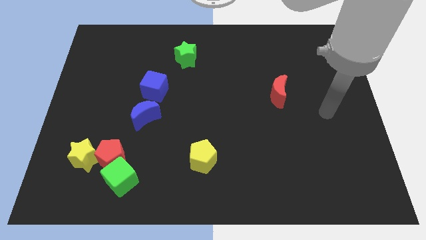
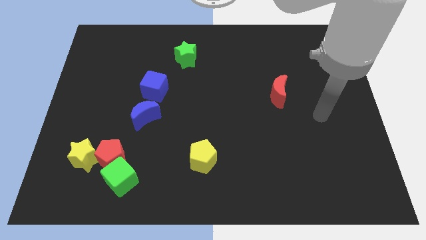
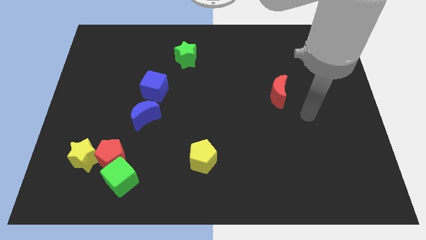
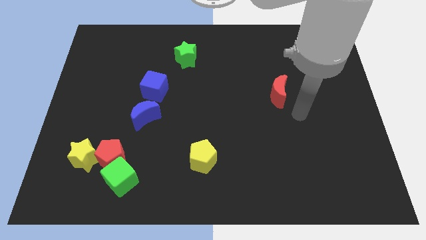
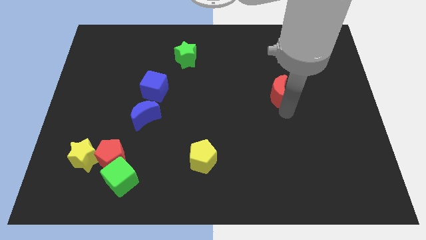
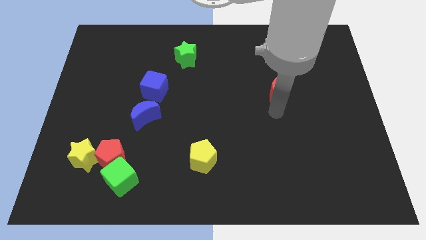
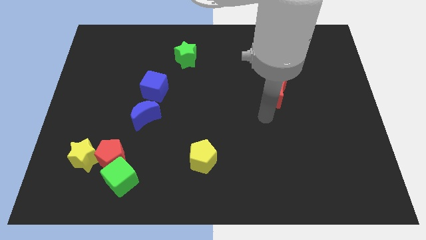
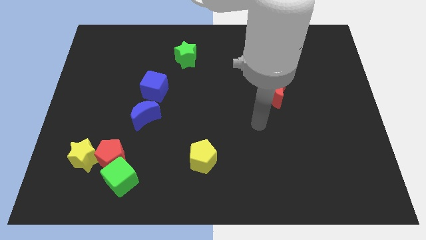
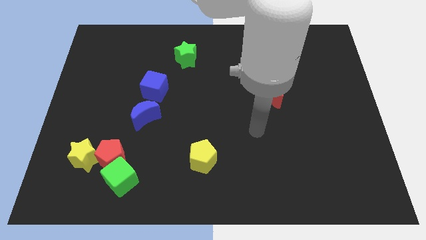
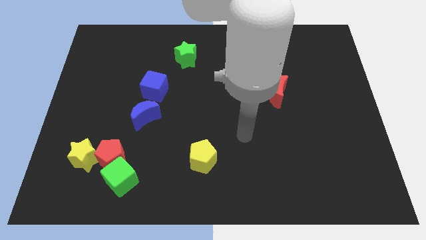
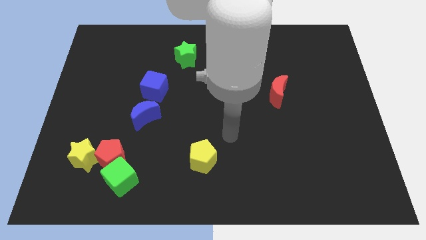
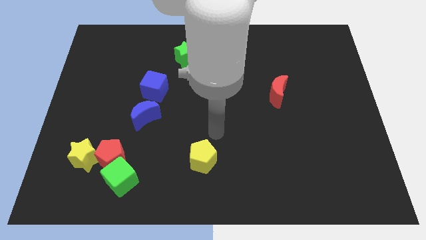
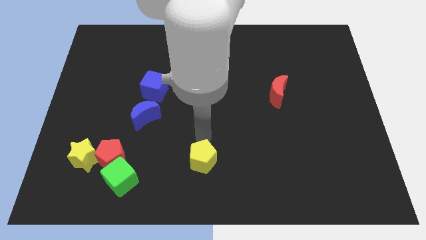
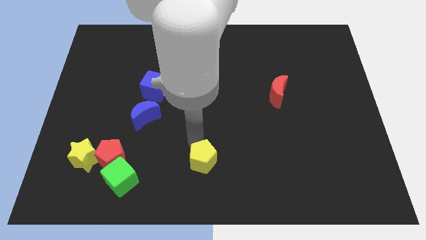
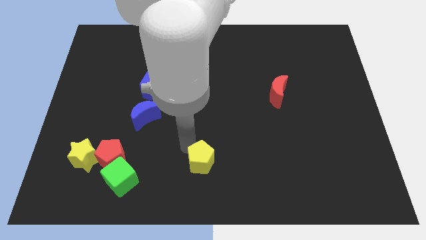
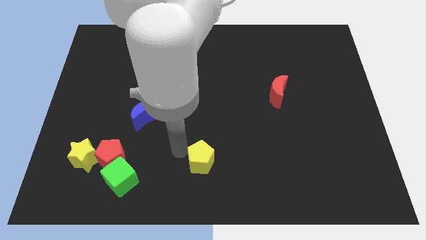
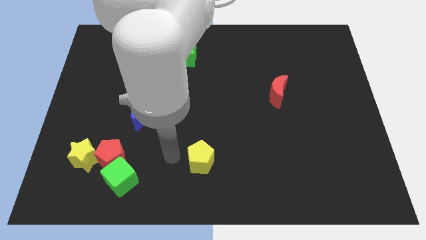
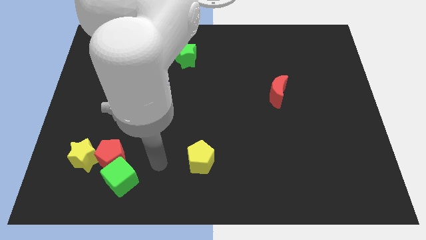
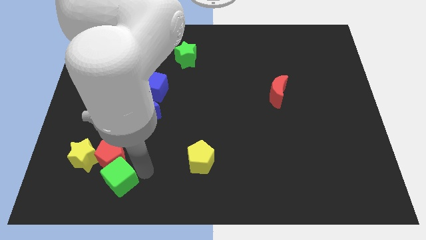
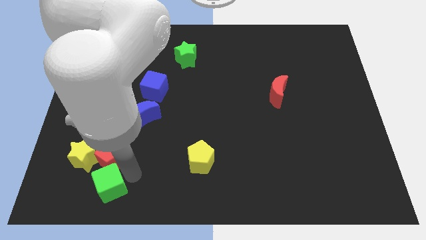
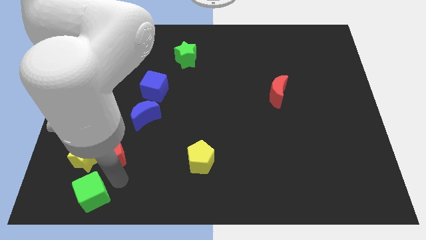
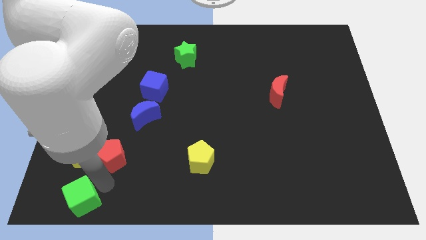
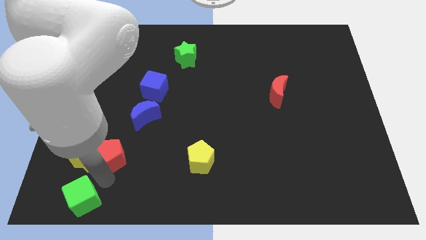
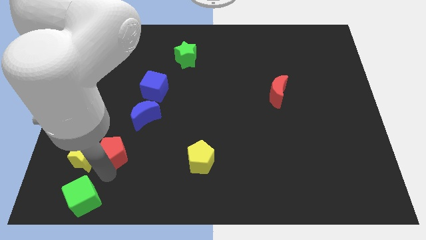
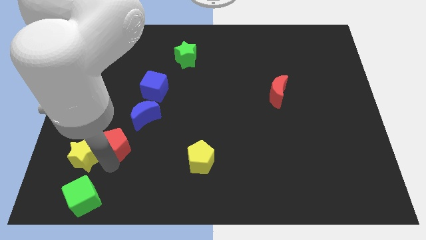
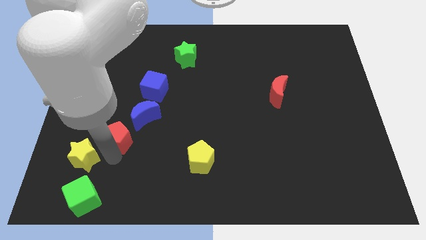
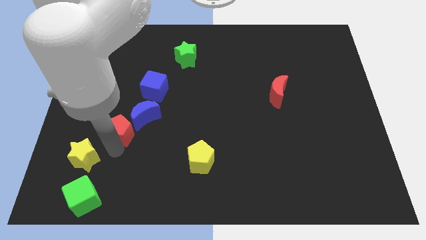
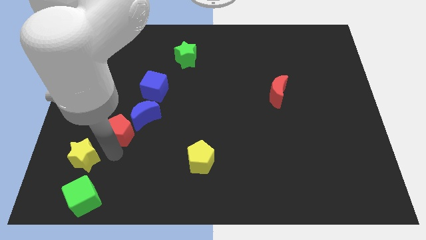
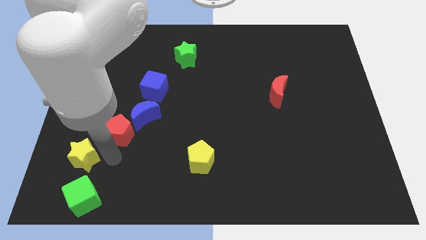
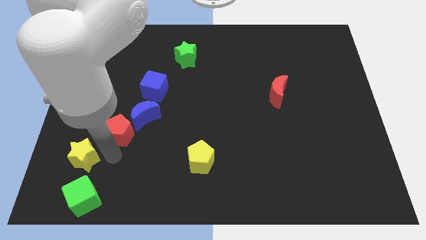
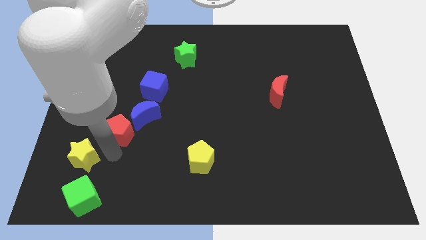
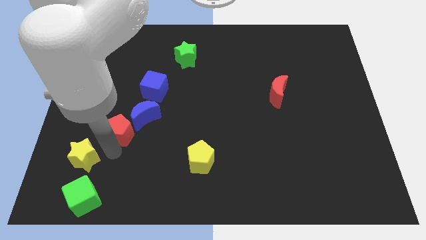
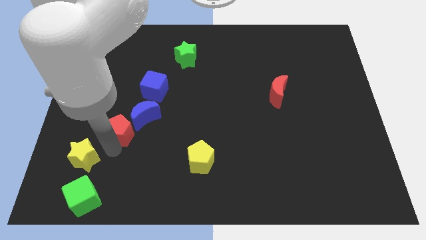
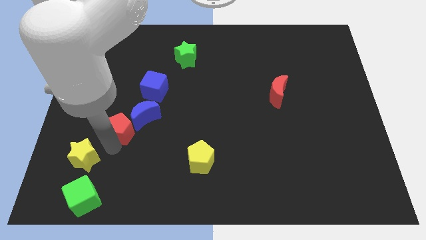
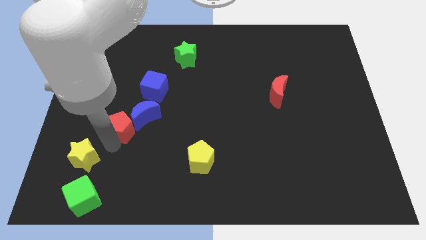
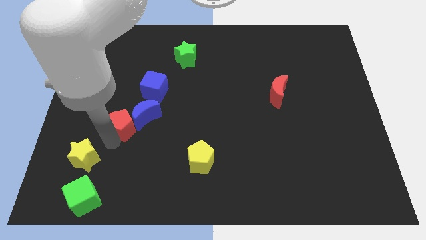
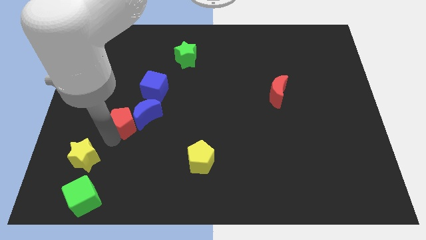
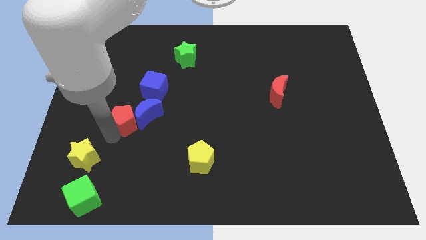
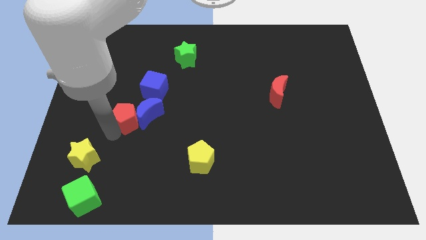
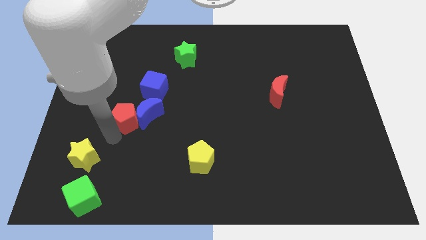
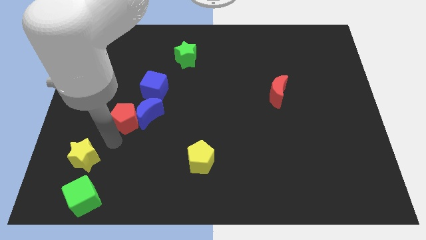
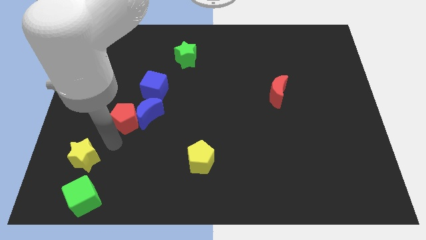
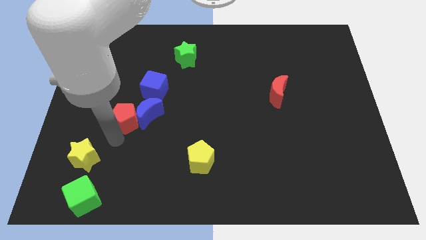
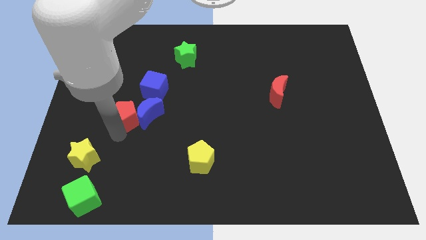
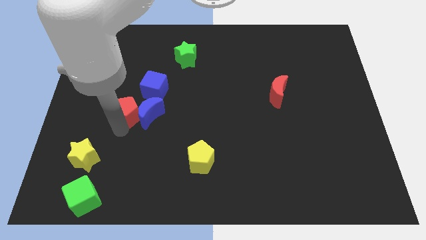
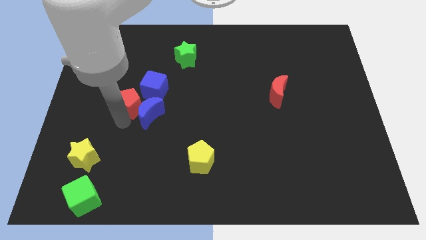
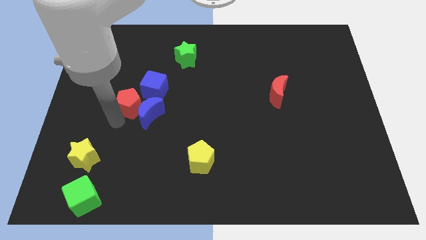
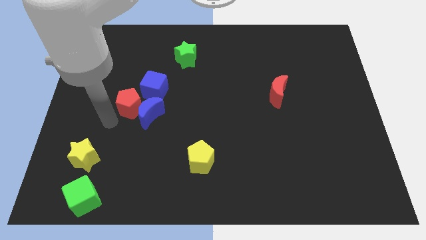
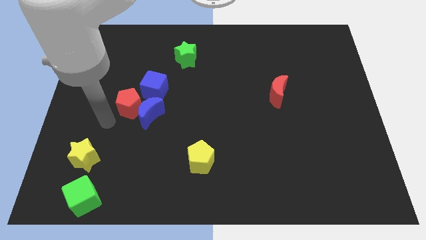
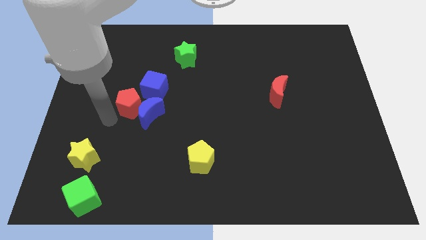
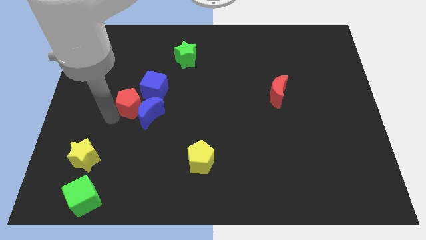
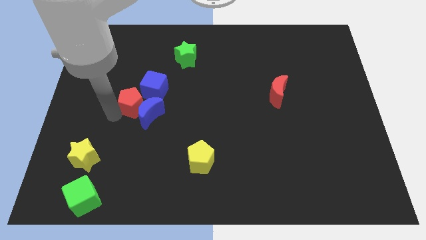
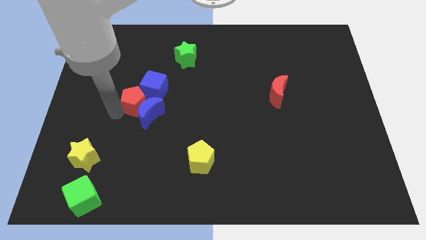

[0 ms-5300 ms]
move the red pentagon next to the blue cube

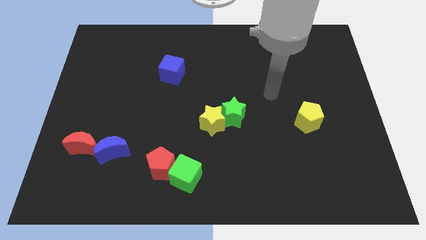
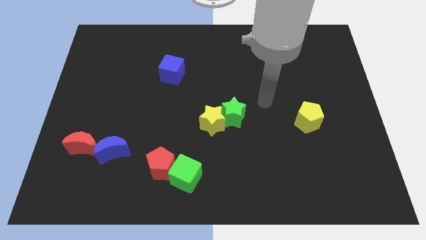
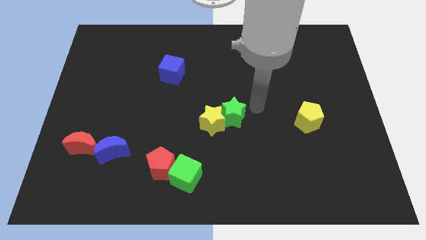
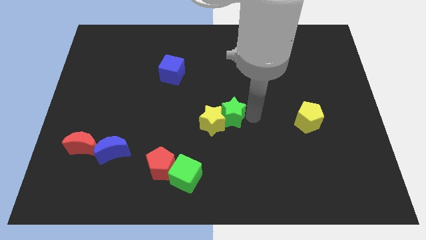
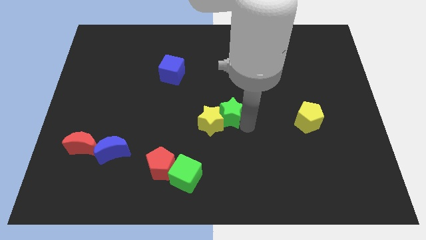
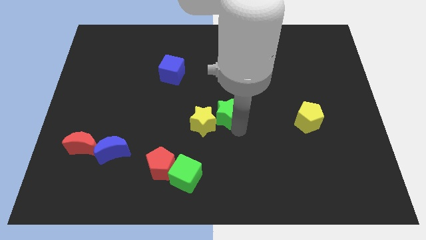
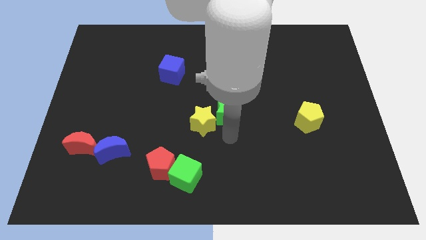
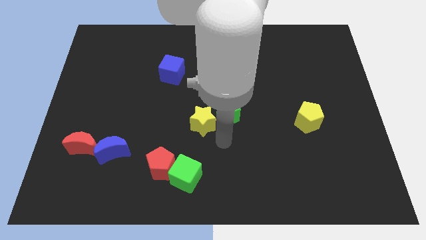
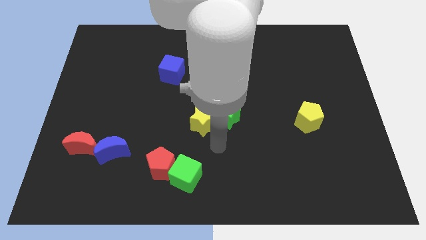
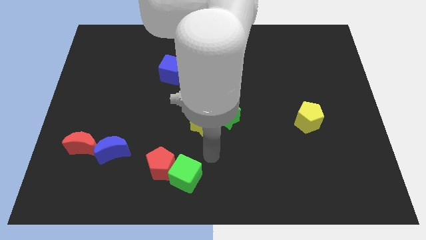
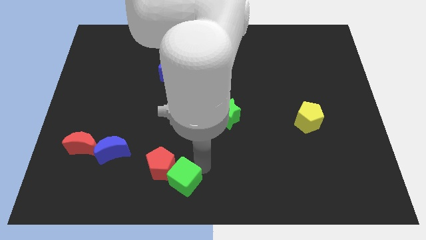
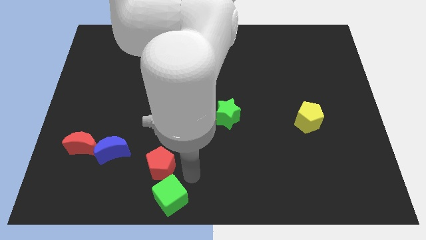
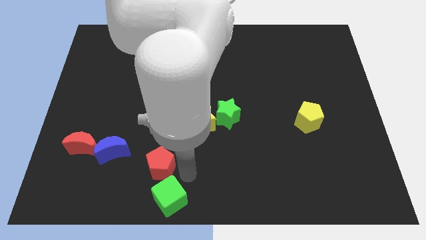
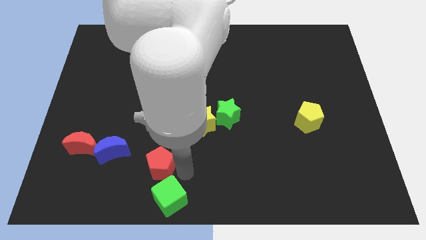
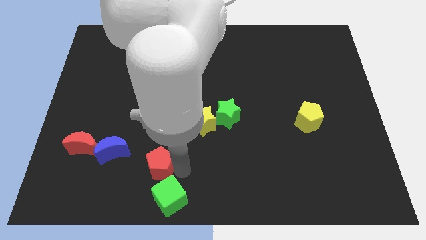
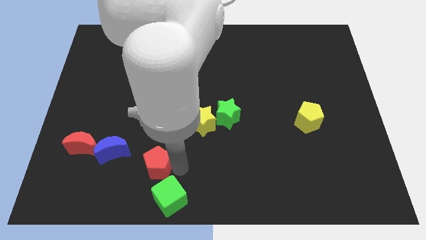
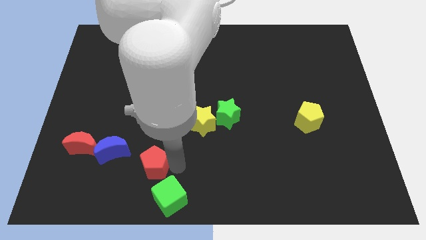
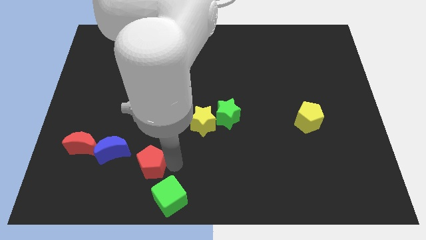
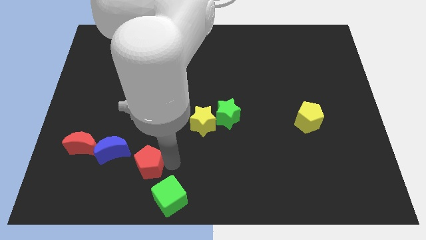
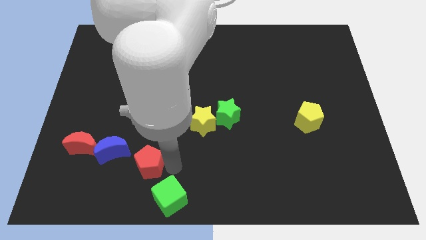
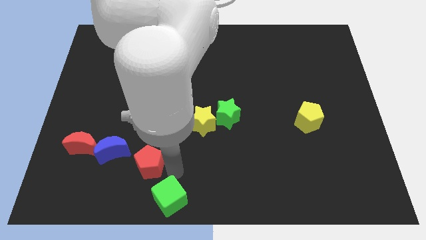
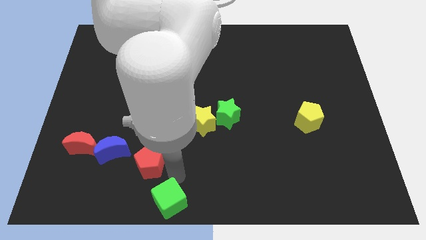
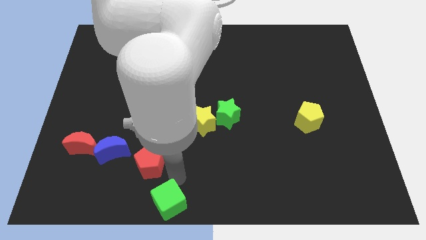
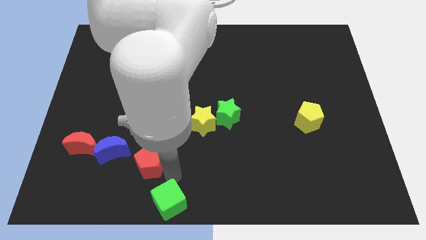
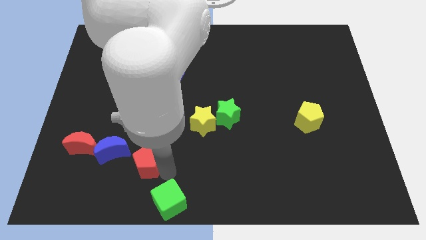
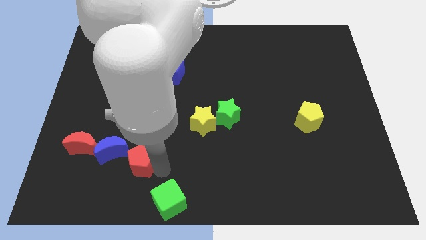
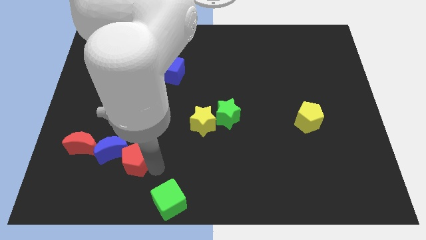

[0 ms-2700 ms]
slide the red pentagon next to the blue moon
